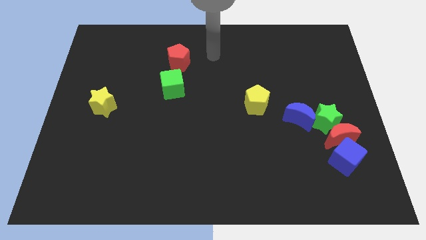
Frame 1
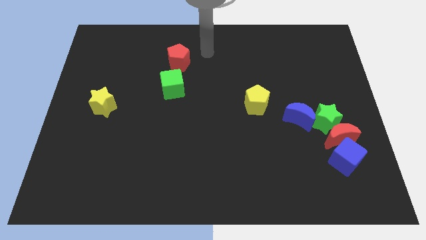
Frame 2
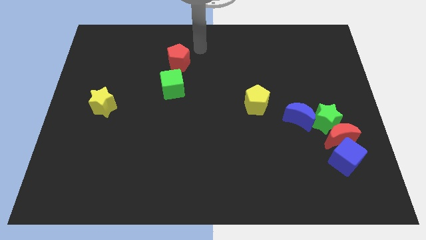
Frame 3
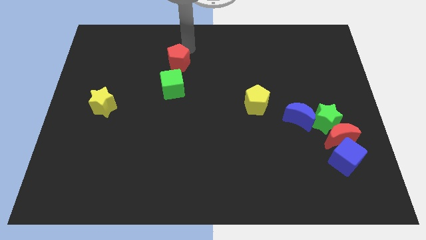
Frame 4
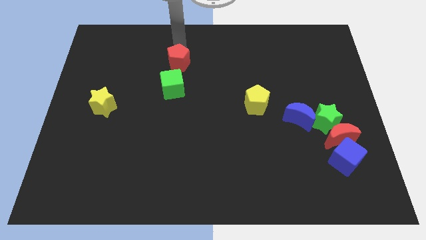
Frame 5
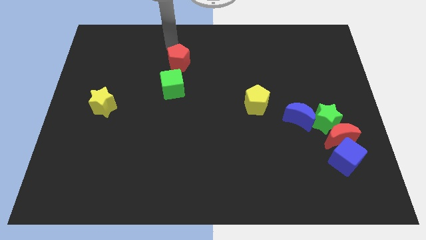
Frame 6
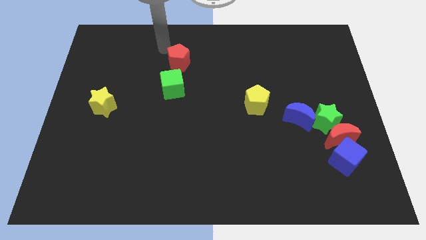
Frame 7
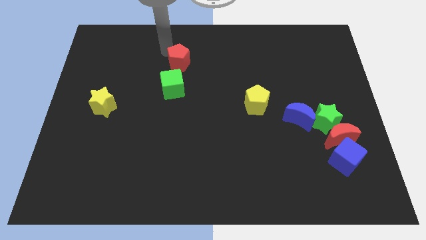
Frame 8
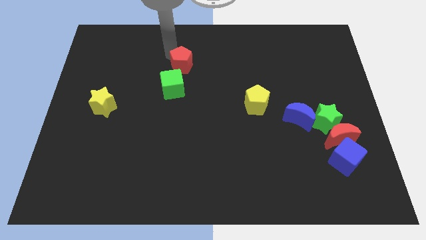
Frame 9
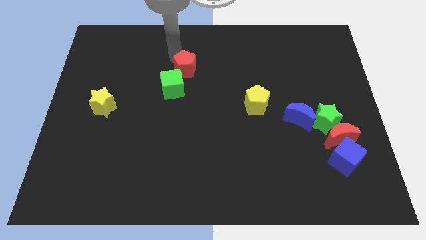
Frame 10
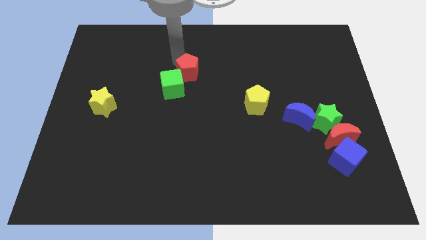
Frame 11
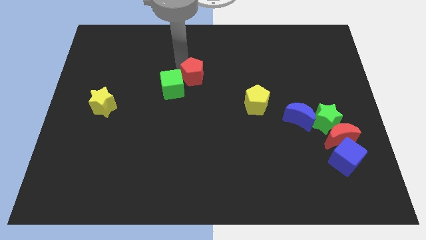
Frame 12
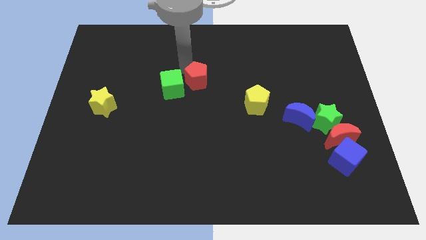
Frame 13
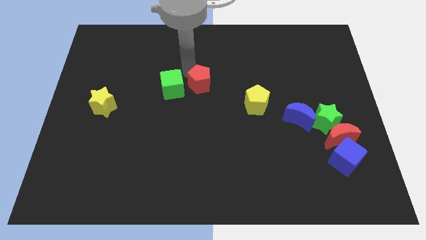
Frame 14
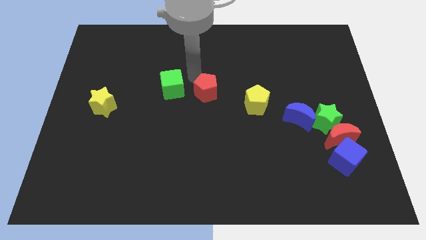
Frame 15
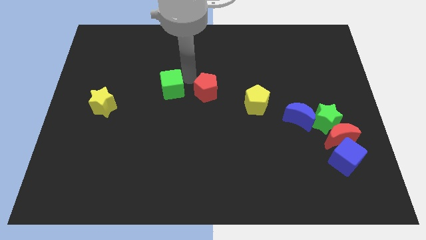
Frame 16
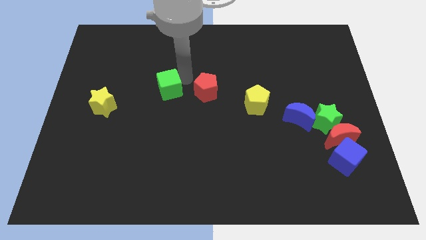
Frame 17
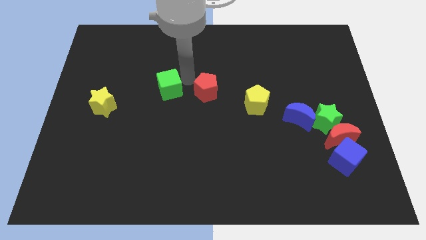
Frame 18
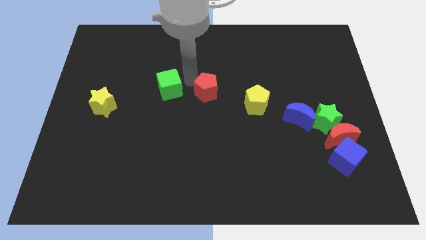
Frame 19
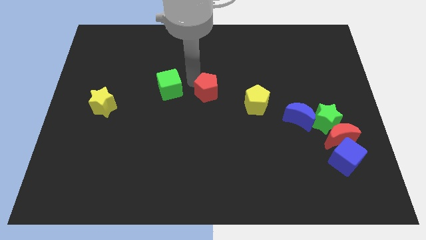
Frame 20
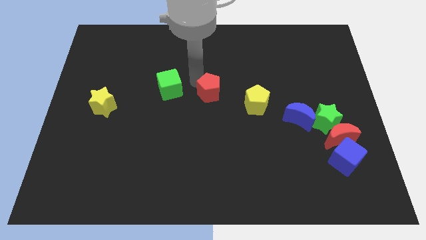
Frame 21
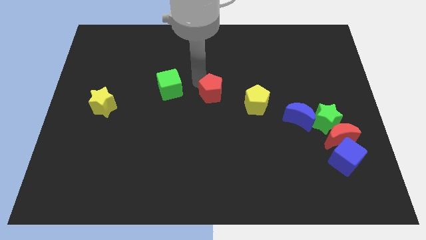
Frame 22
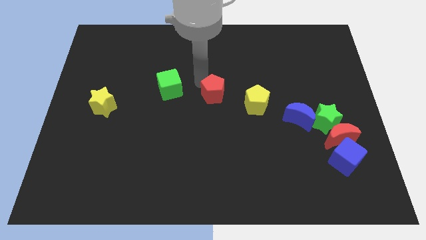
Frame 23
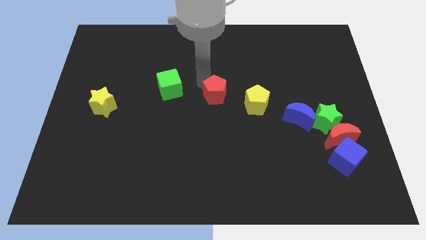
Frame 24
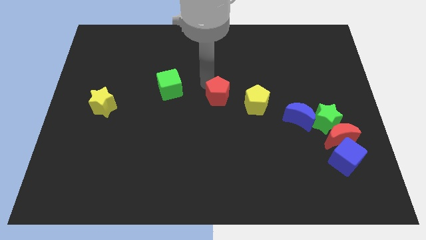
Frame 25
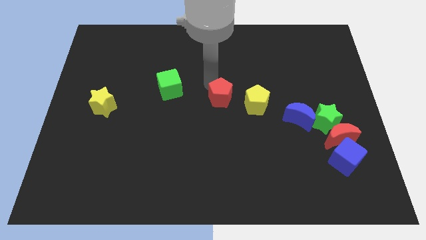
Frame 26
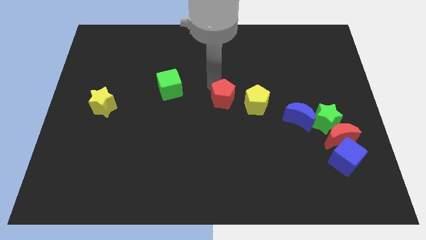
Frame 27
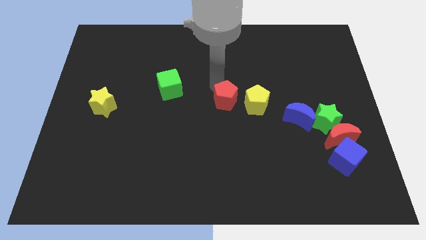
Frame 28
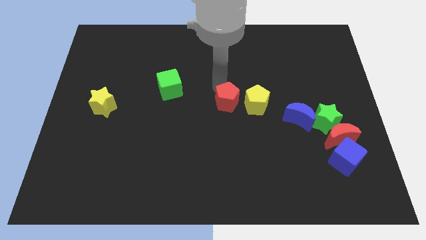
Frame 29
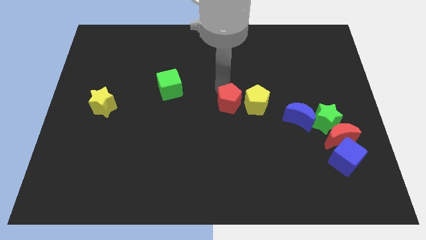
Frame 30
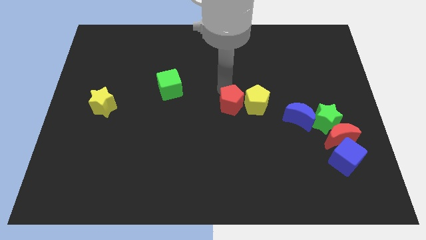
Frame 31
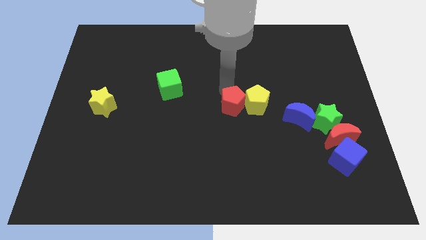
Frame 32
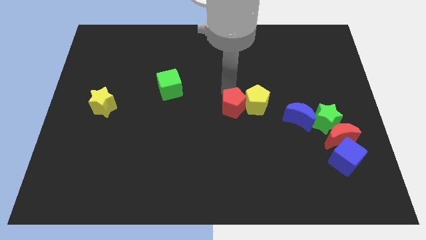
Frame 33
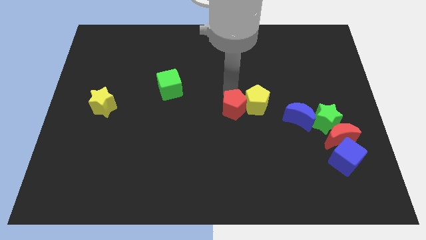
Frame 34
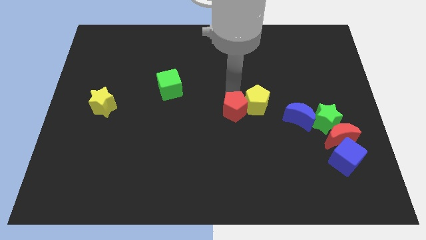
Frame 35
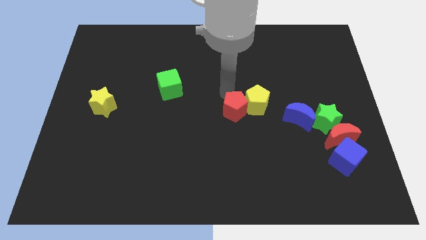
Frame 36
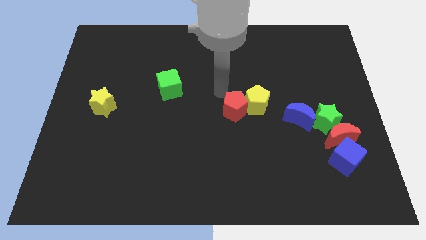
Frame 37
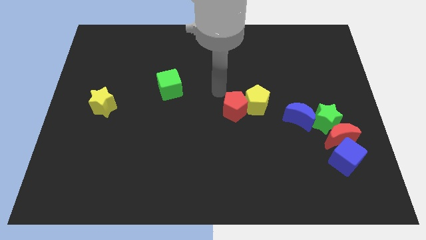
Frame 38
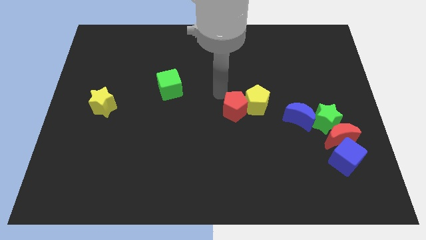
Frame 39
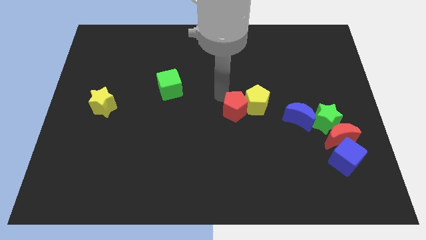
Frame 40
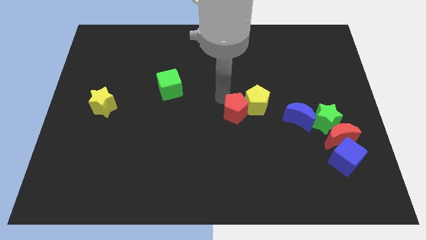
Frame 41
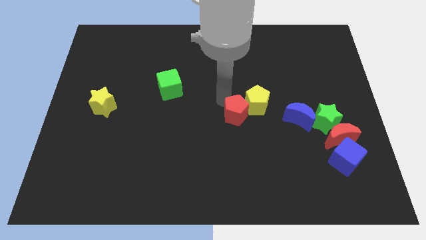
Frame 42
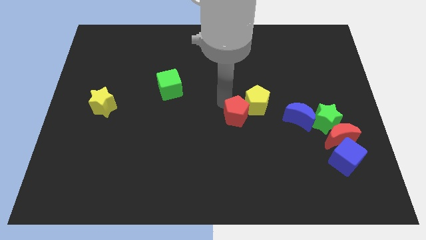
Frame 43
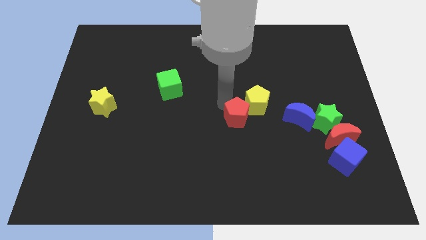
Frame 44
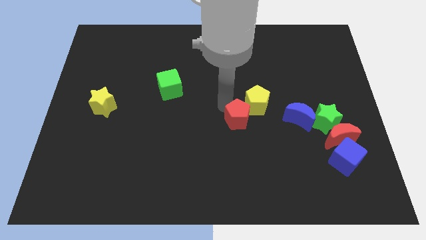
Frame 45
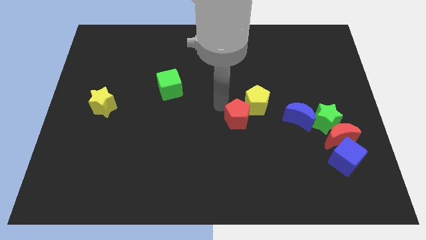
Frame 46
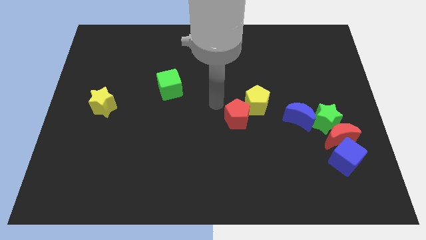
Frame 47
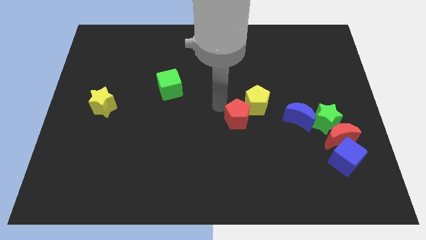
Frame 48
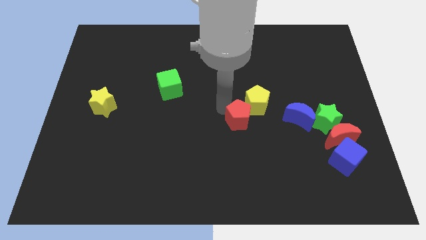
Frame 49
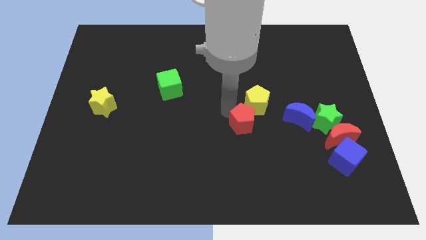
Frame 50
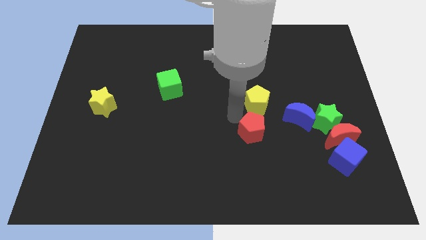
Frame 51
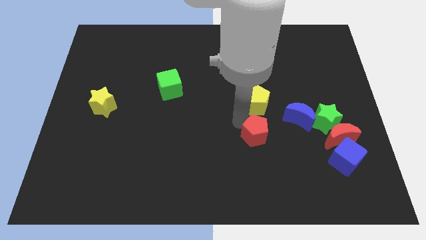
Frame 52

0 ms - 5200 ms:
put the red pentagon to the bottom left of the blue moon

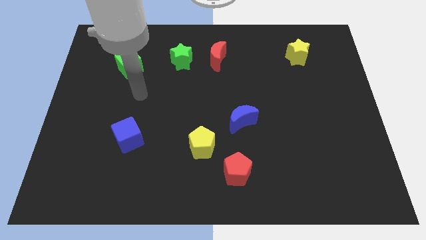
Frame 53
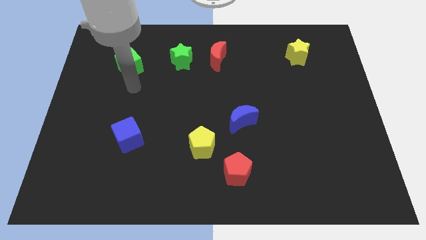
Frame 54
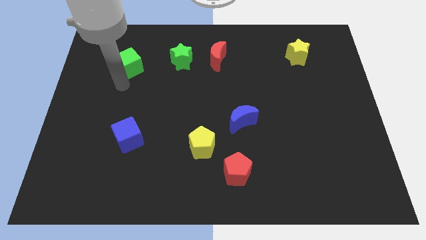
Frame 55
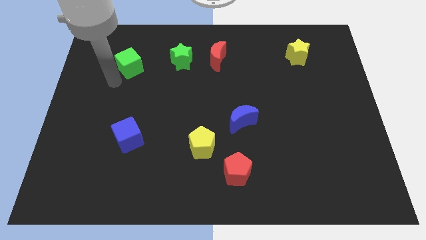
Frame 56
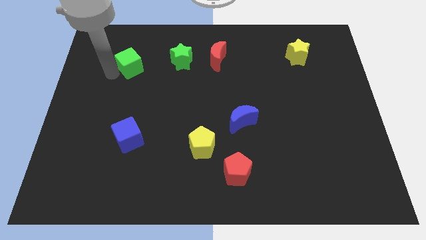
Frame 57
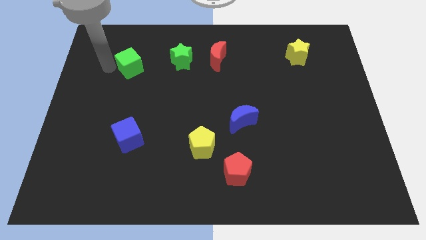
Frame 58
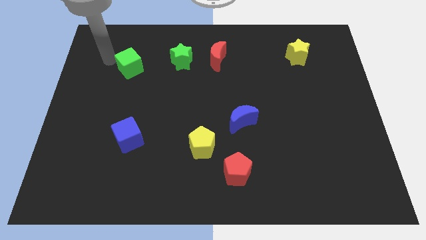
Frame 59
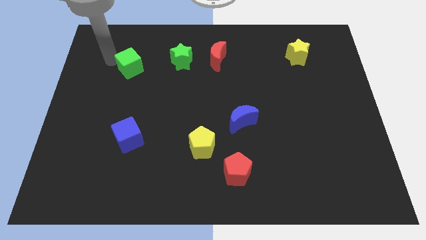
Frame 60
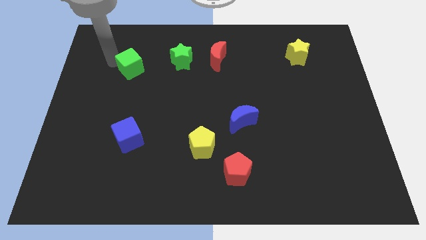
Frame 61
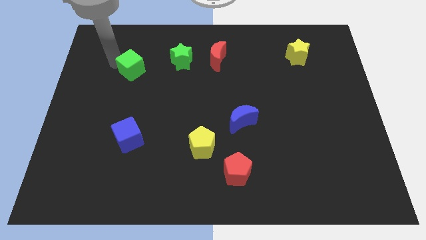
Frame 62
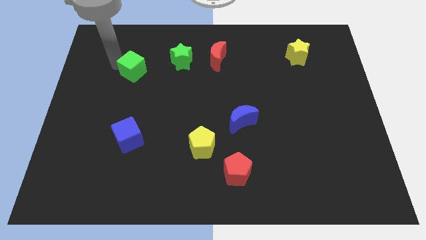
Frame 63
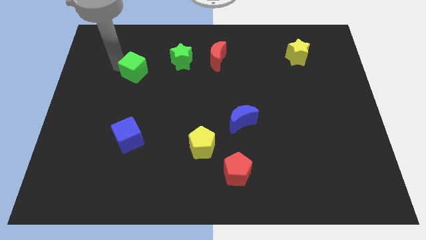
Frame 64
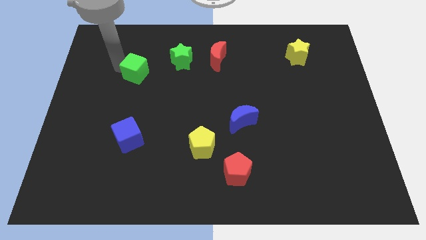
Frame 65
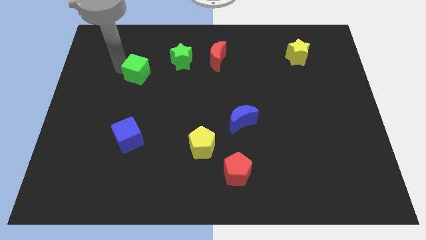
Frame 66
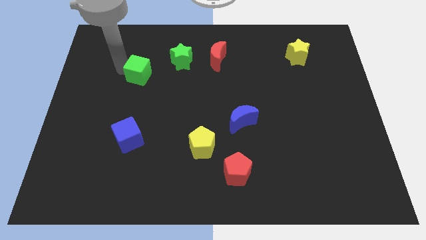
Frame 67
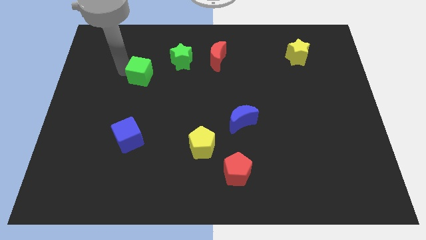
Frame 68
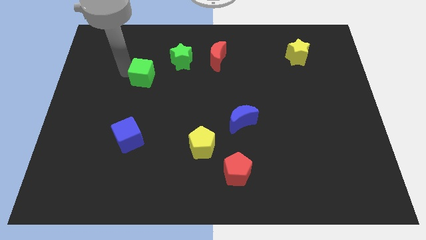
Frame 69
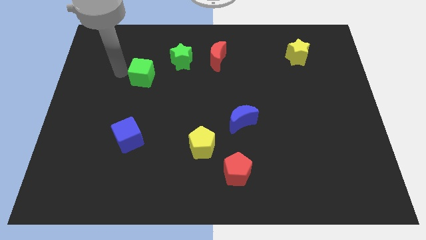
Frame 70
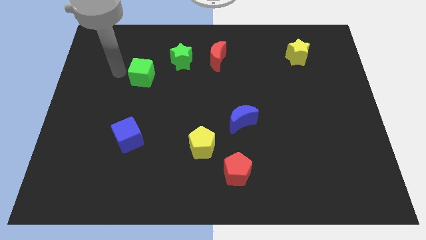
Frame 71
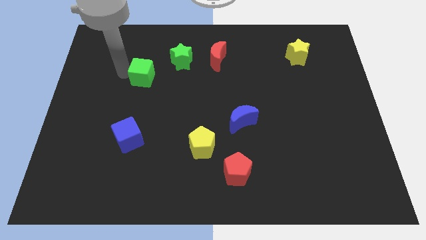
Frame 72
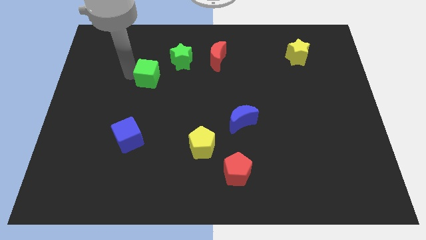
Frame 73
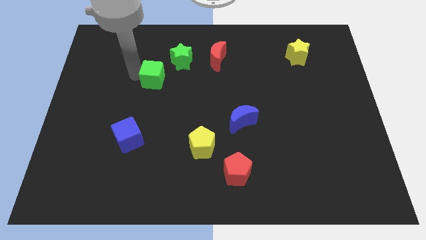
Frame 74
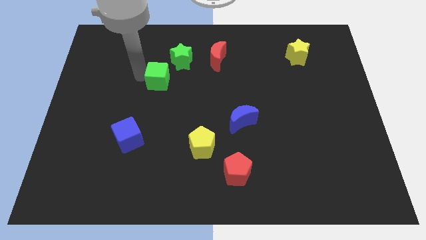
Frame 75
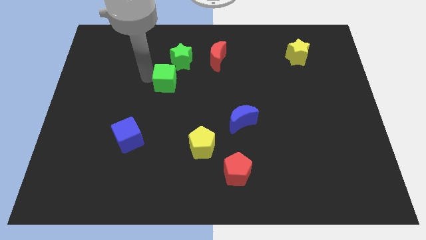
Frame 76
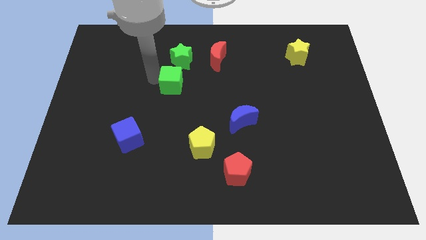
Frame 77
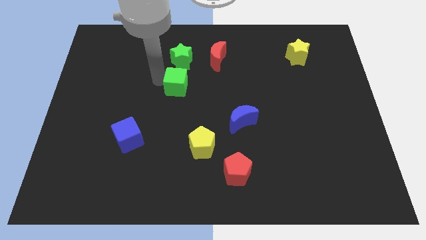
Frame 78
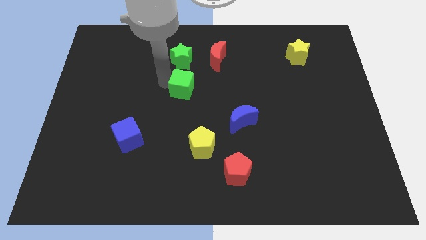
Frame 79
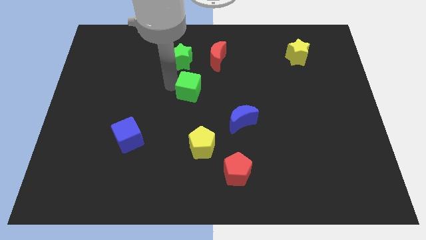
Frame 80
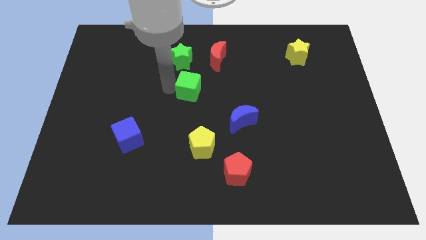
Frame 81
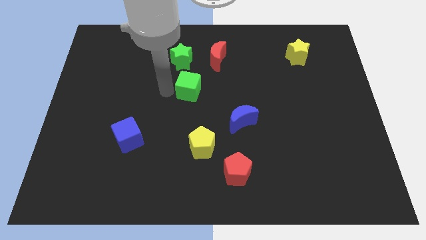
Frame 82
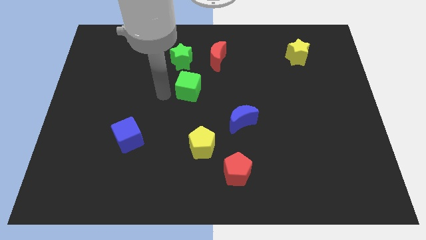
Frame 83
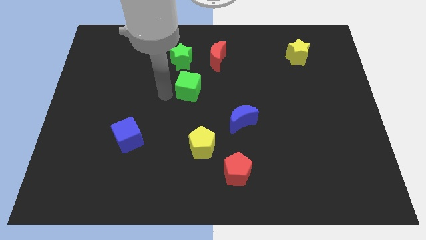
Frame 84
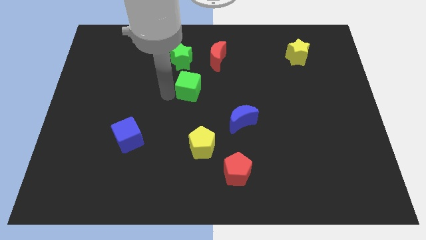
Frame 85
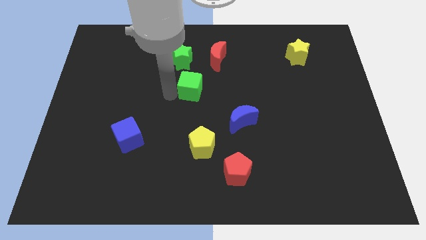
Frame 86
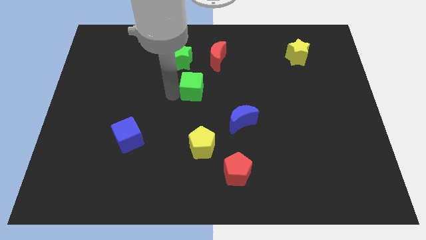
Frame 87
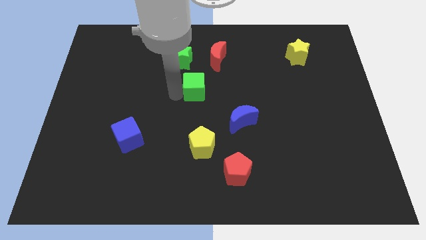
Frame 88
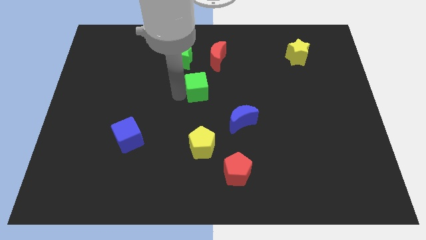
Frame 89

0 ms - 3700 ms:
move the green cube below the red moon
